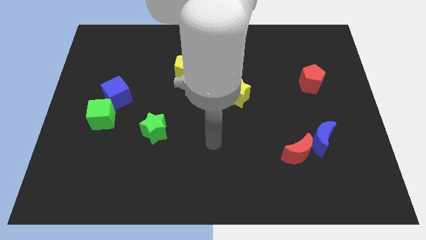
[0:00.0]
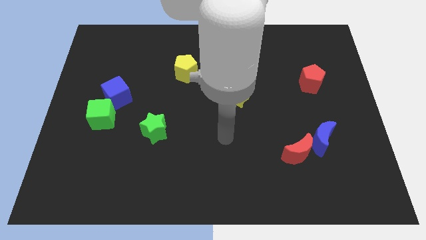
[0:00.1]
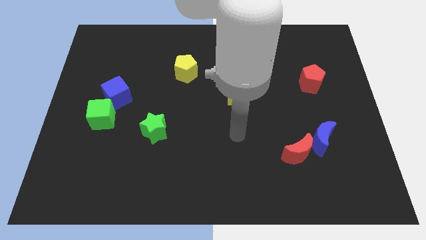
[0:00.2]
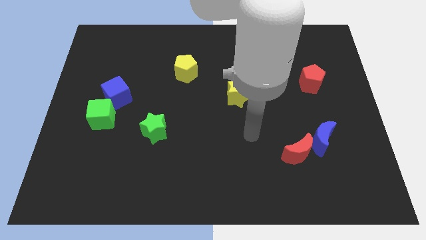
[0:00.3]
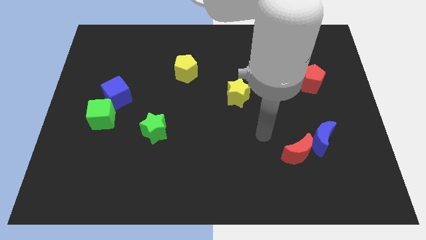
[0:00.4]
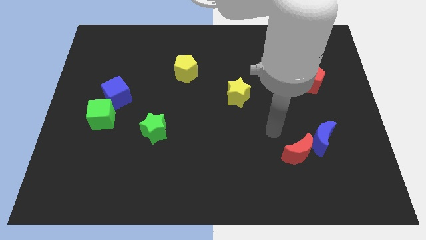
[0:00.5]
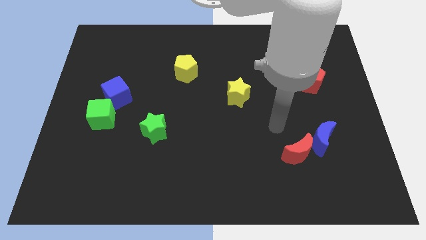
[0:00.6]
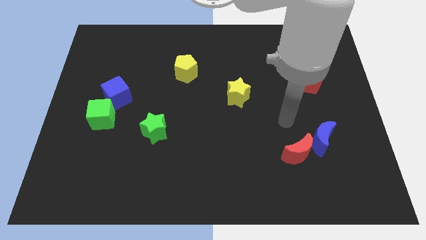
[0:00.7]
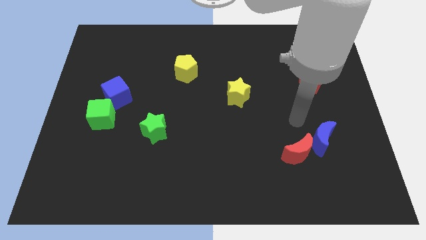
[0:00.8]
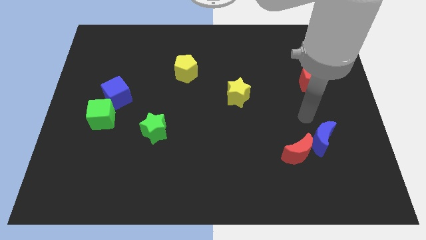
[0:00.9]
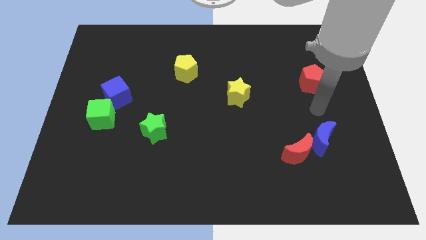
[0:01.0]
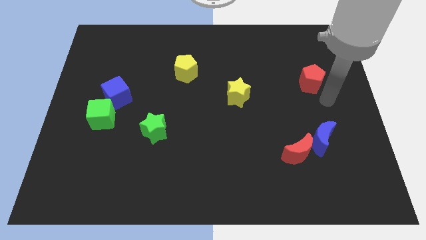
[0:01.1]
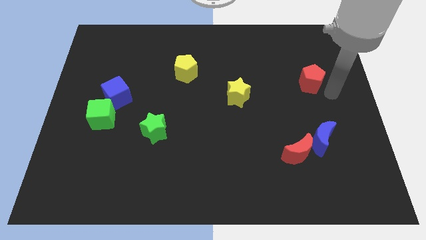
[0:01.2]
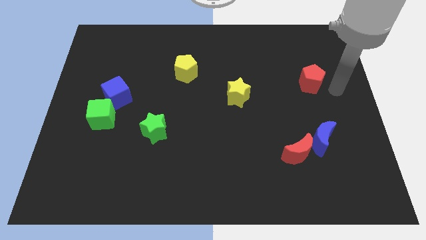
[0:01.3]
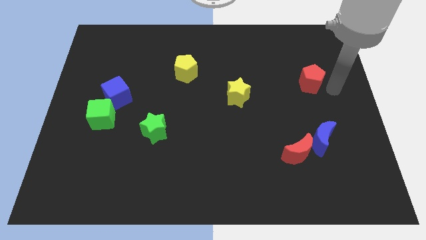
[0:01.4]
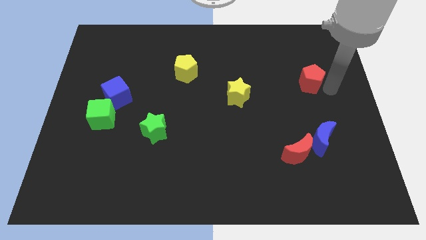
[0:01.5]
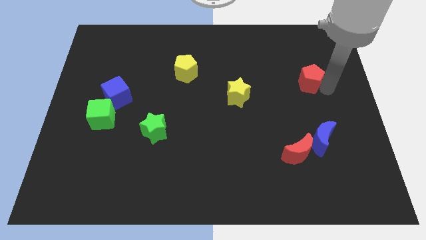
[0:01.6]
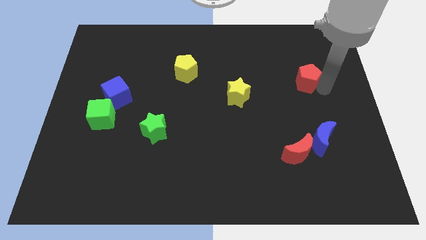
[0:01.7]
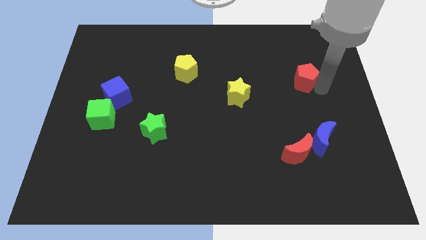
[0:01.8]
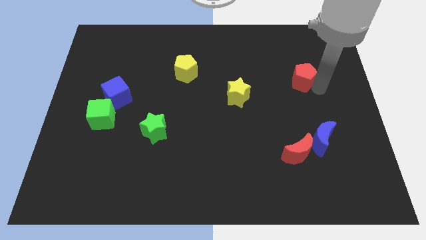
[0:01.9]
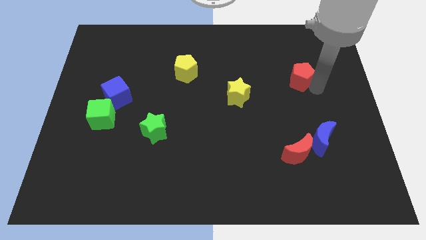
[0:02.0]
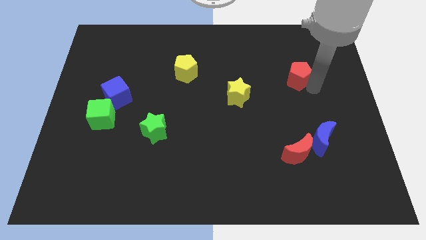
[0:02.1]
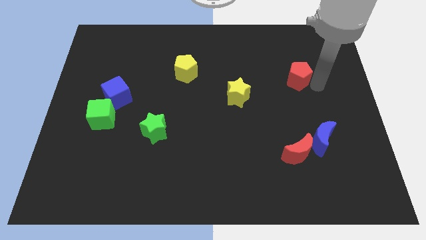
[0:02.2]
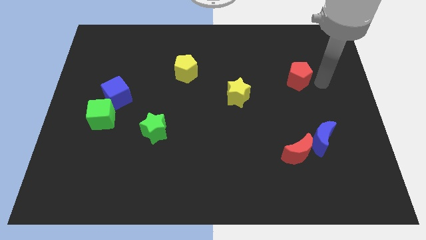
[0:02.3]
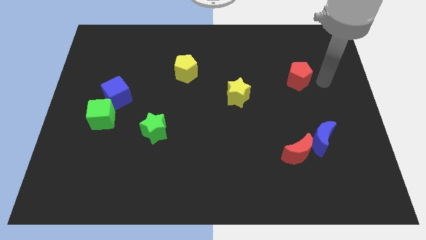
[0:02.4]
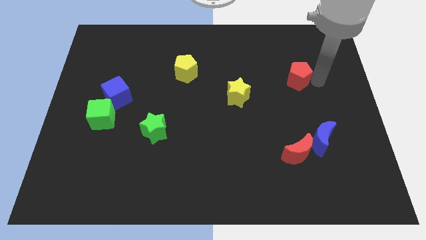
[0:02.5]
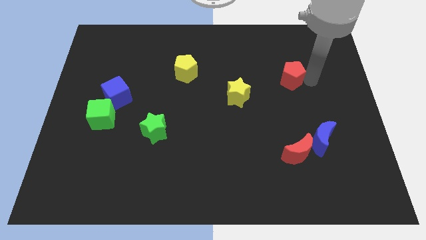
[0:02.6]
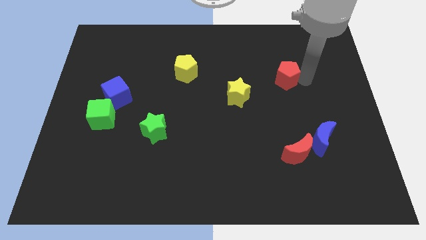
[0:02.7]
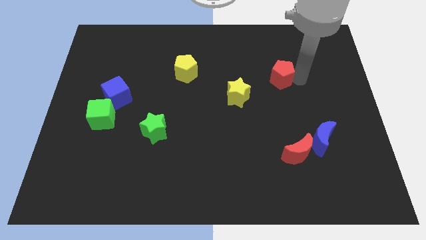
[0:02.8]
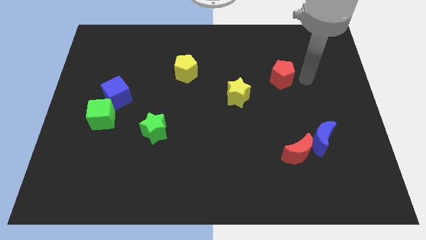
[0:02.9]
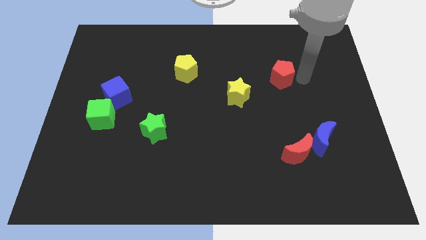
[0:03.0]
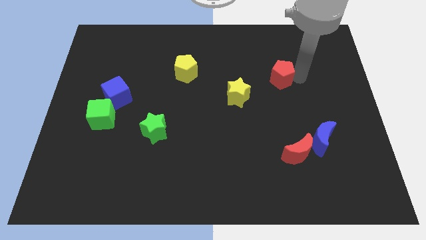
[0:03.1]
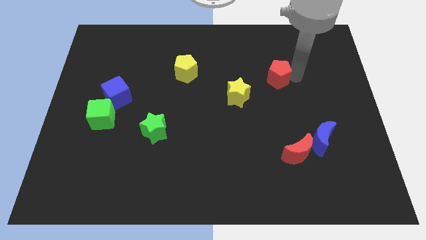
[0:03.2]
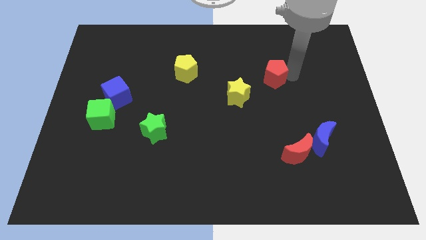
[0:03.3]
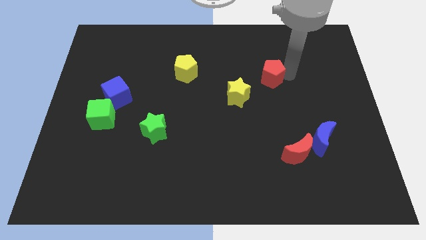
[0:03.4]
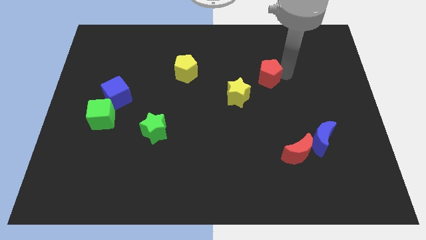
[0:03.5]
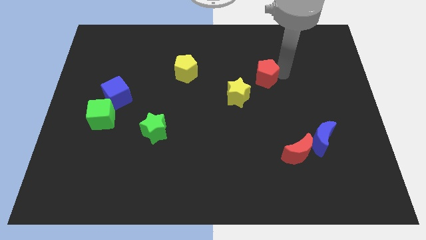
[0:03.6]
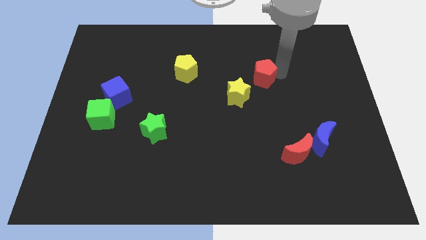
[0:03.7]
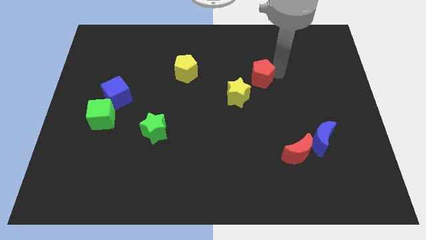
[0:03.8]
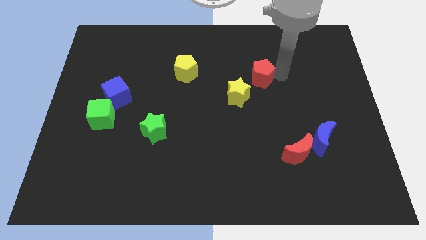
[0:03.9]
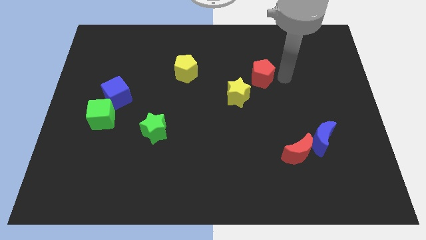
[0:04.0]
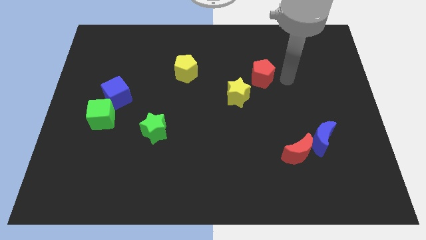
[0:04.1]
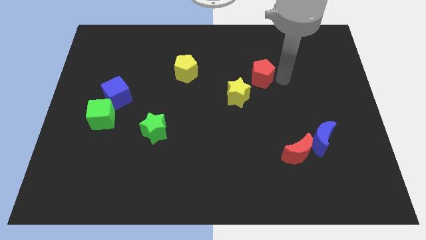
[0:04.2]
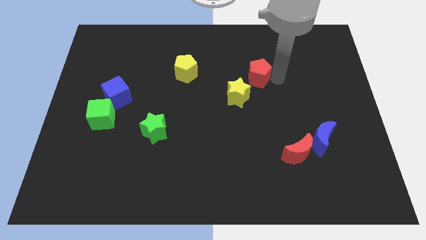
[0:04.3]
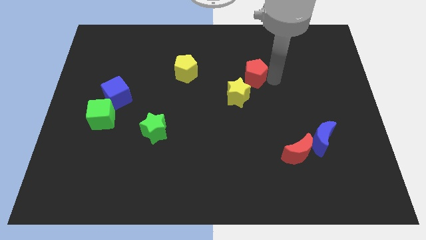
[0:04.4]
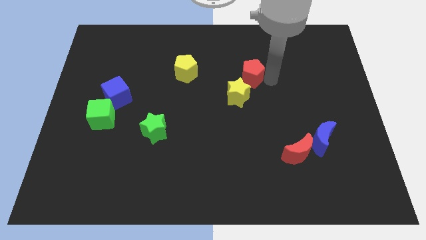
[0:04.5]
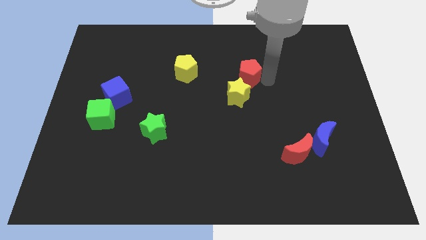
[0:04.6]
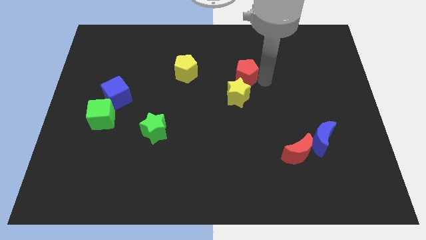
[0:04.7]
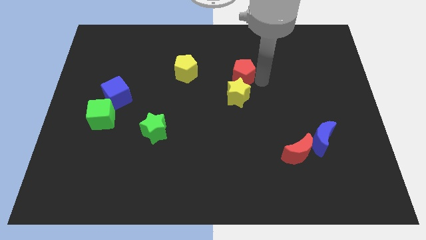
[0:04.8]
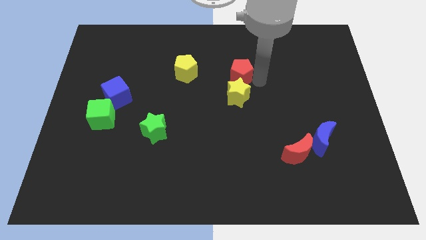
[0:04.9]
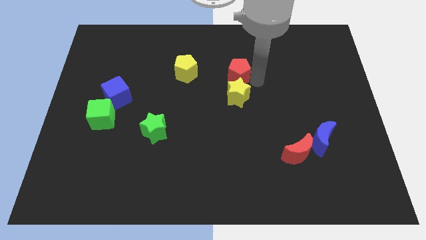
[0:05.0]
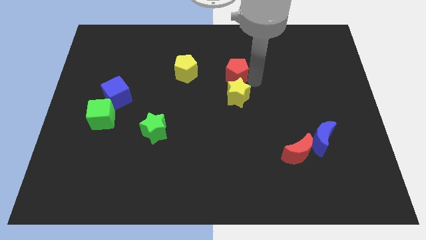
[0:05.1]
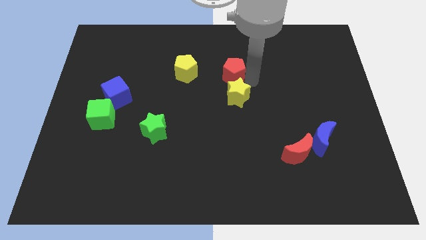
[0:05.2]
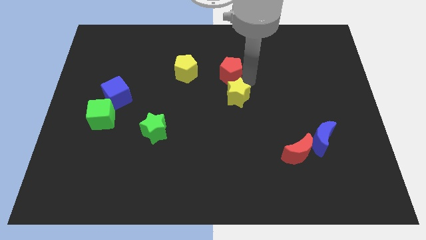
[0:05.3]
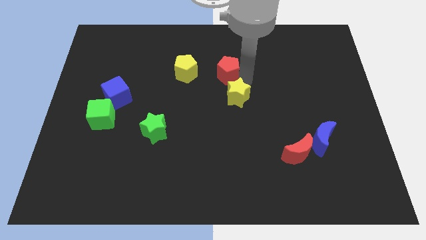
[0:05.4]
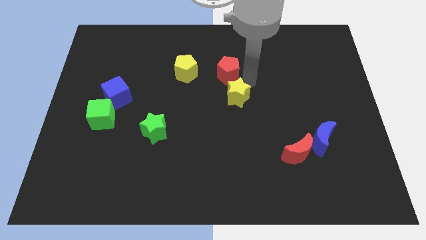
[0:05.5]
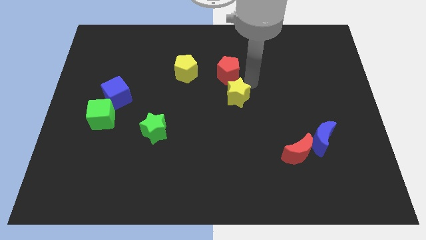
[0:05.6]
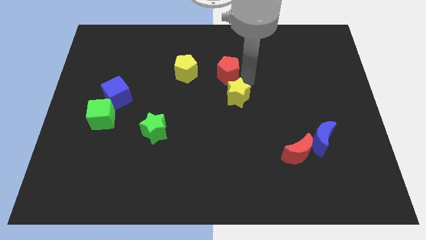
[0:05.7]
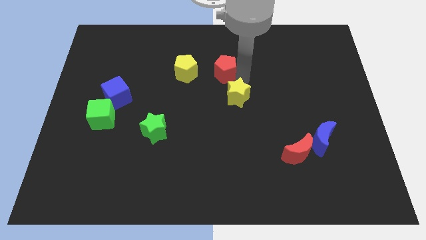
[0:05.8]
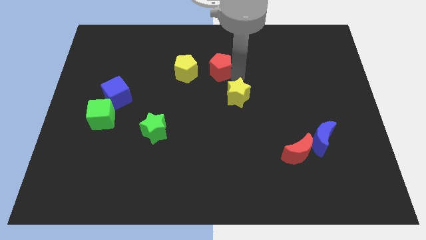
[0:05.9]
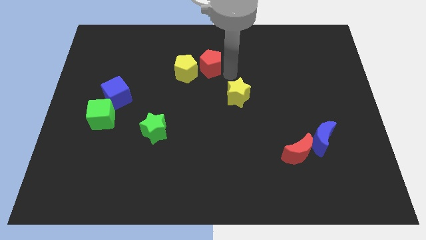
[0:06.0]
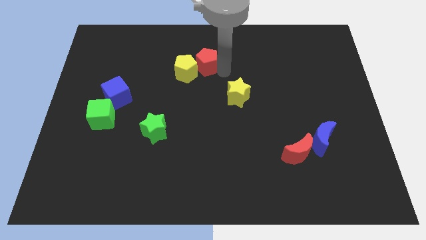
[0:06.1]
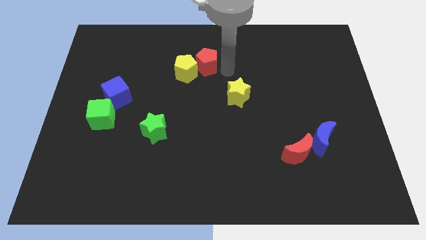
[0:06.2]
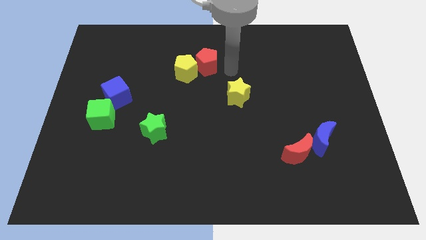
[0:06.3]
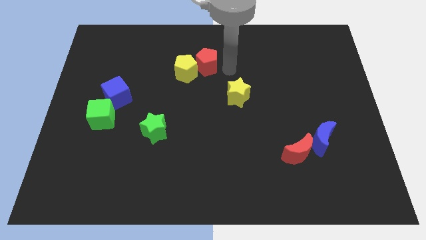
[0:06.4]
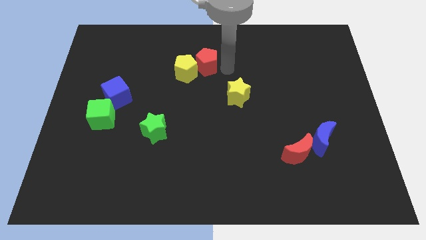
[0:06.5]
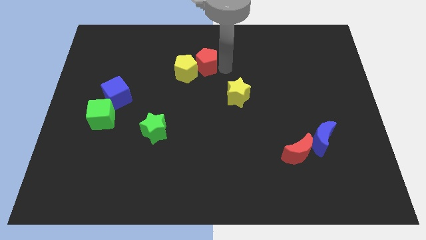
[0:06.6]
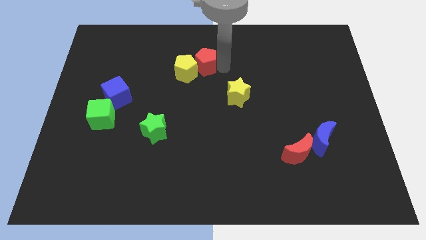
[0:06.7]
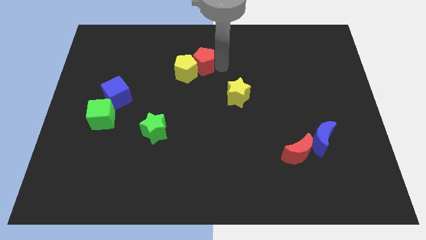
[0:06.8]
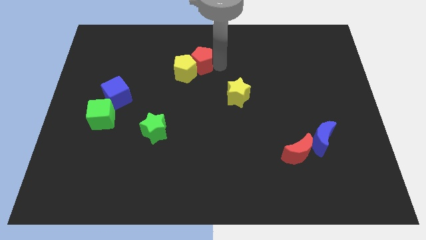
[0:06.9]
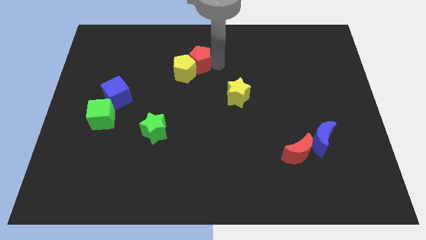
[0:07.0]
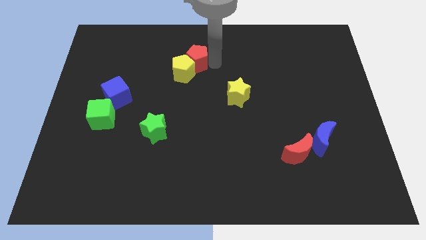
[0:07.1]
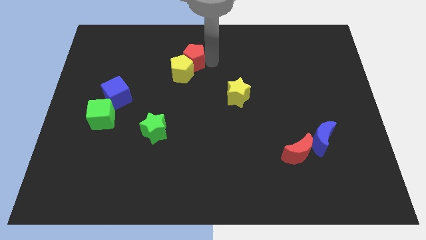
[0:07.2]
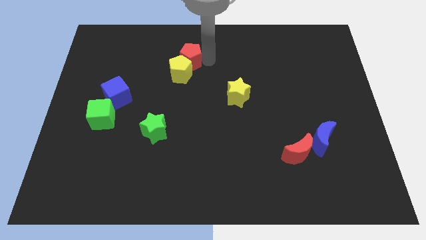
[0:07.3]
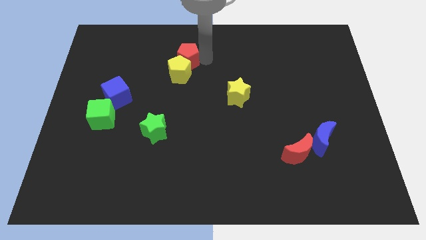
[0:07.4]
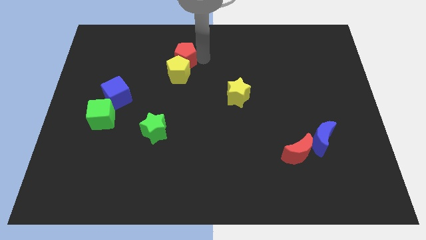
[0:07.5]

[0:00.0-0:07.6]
put the red pentagon to the top left side of the yellow pentagon
